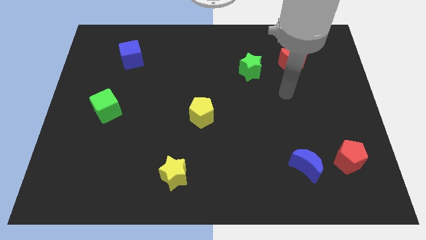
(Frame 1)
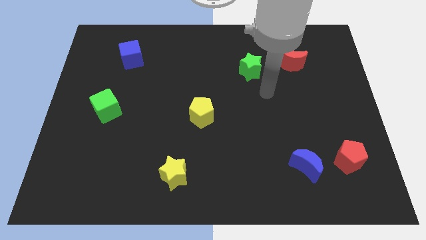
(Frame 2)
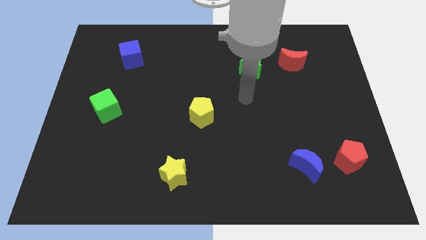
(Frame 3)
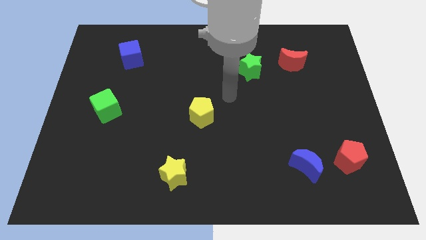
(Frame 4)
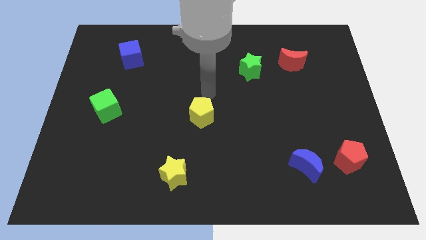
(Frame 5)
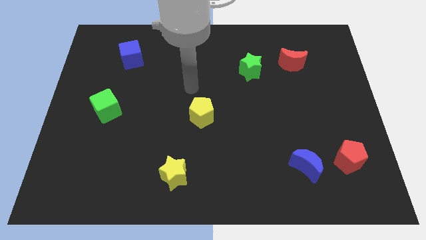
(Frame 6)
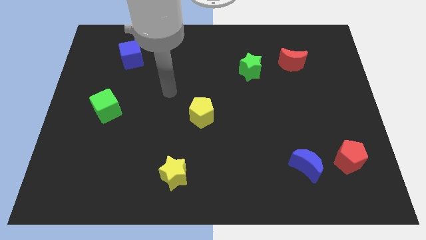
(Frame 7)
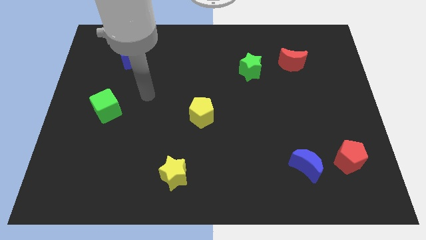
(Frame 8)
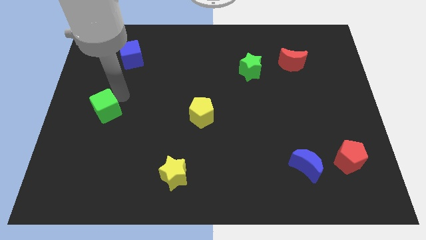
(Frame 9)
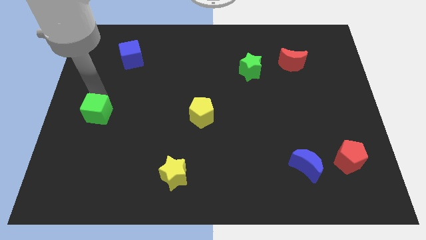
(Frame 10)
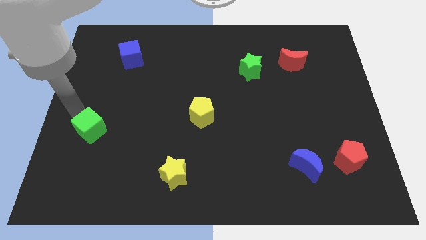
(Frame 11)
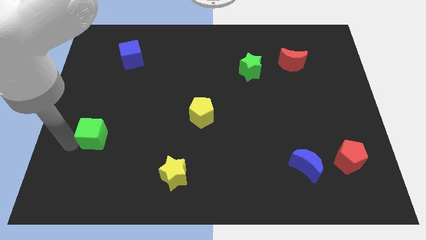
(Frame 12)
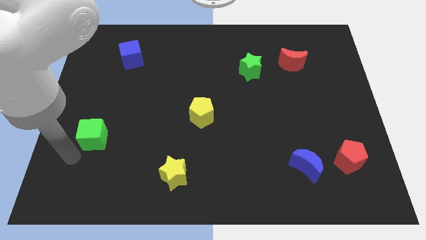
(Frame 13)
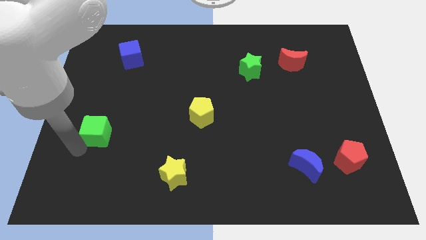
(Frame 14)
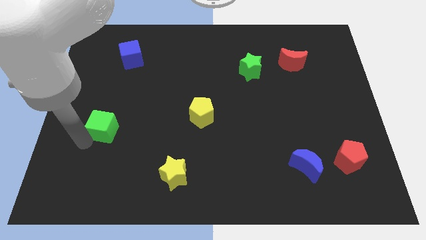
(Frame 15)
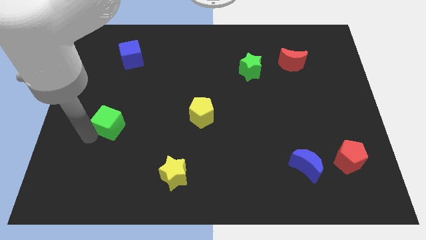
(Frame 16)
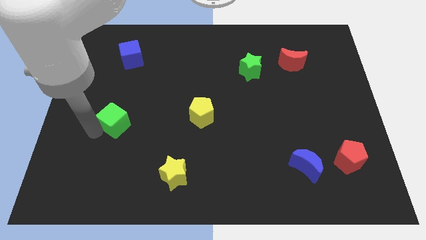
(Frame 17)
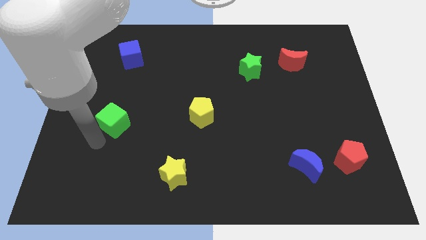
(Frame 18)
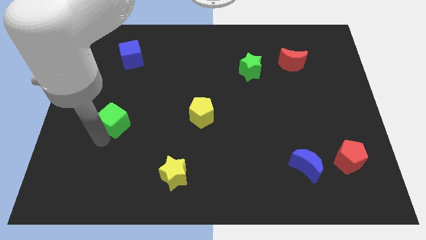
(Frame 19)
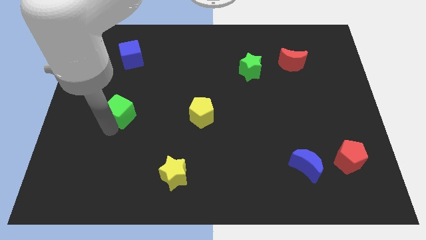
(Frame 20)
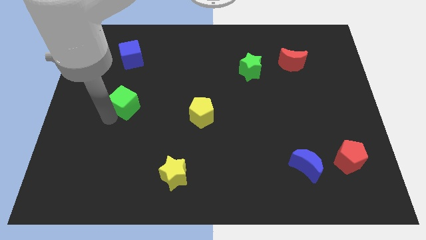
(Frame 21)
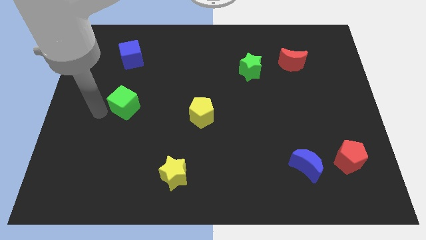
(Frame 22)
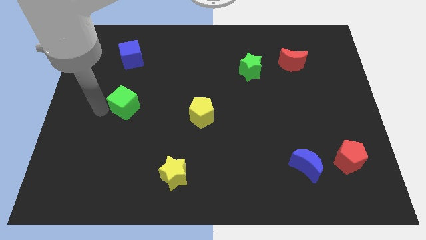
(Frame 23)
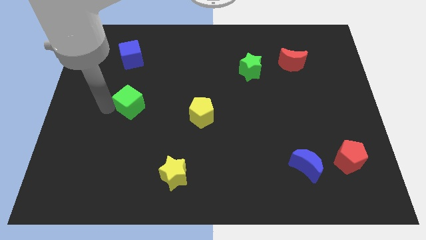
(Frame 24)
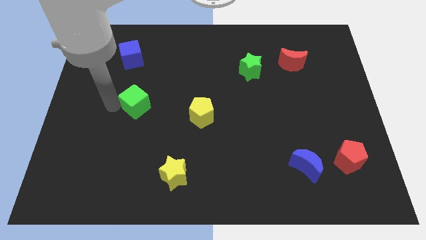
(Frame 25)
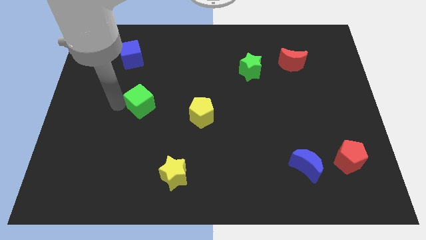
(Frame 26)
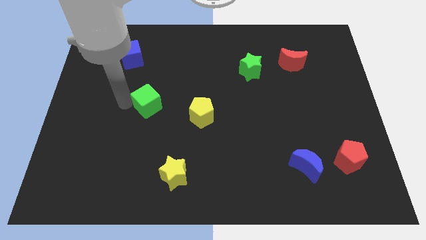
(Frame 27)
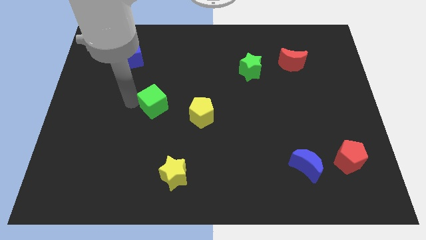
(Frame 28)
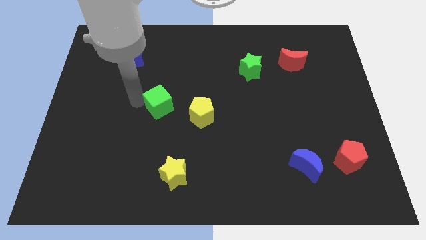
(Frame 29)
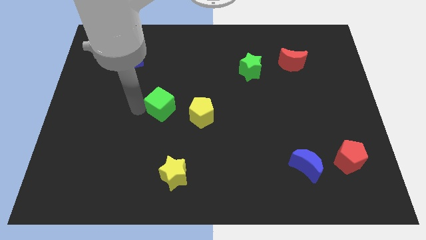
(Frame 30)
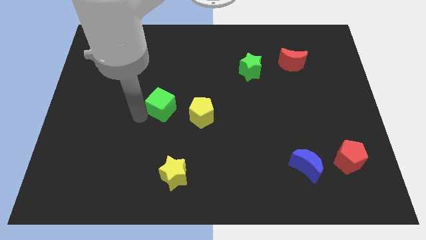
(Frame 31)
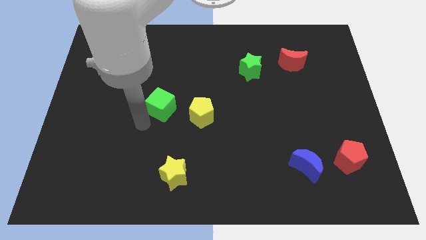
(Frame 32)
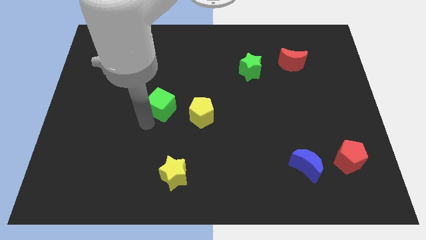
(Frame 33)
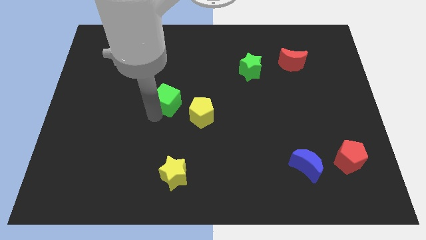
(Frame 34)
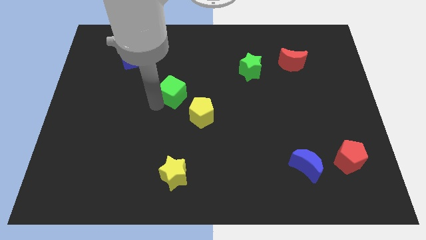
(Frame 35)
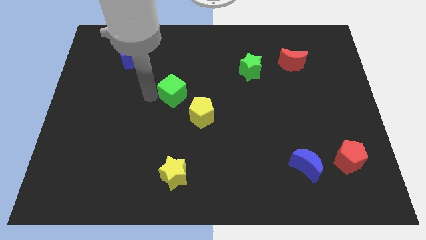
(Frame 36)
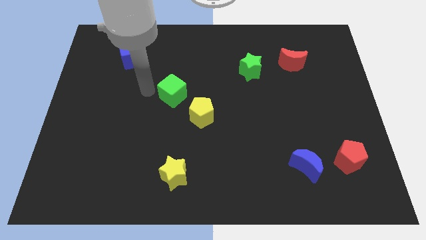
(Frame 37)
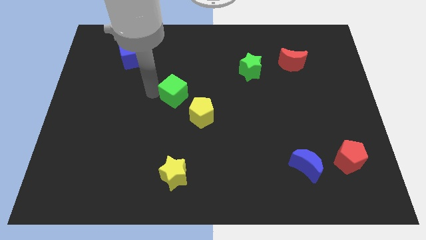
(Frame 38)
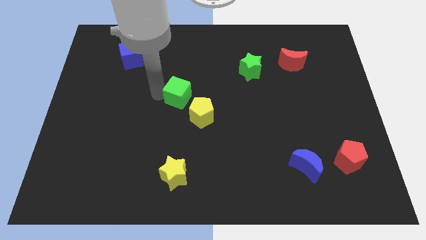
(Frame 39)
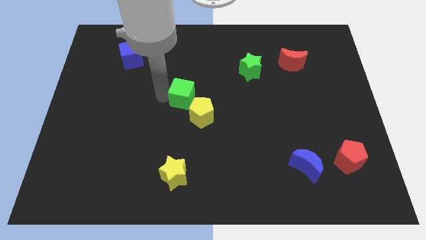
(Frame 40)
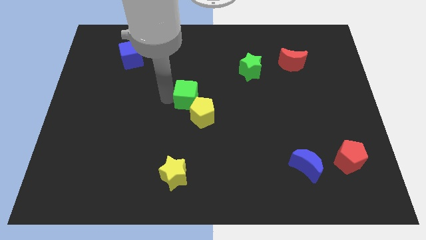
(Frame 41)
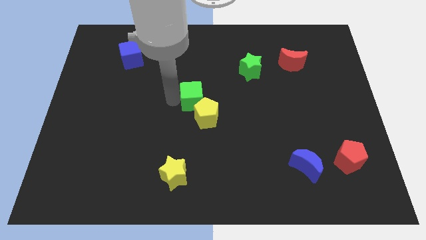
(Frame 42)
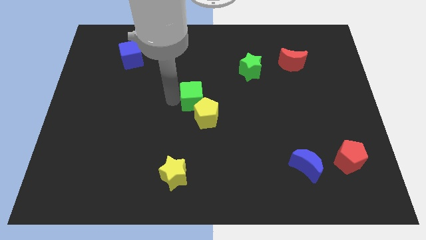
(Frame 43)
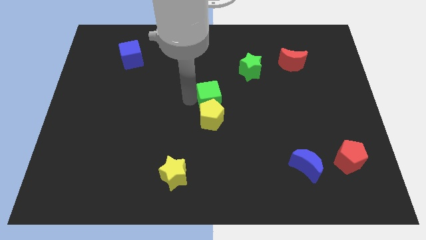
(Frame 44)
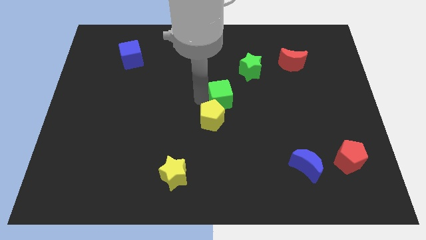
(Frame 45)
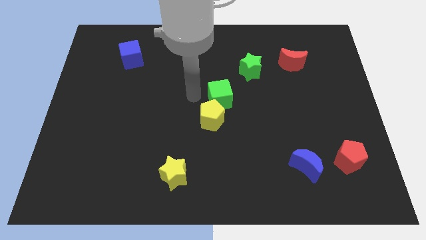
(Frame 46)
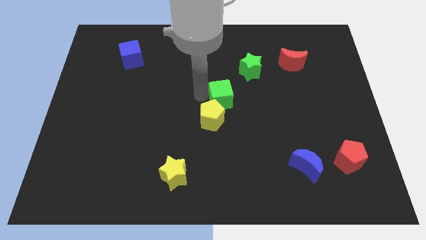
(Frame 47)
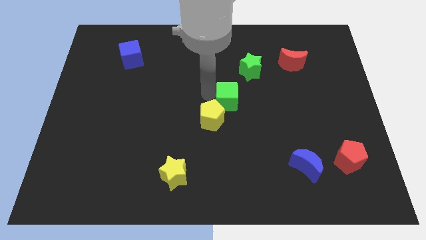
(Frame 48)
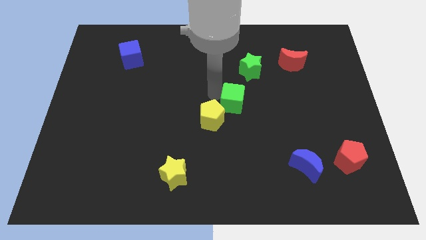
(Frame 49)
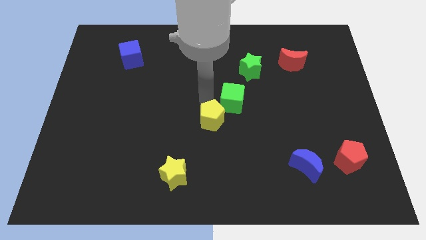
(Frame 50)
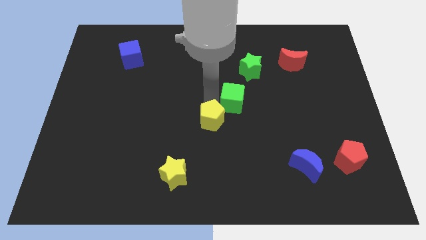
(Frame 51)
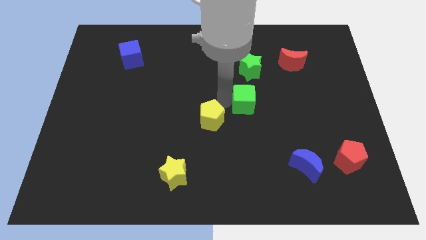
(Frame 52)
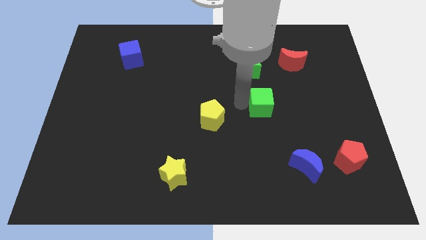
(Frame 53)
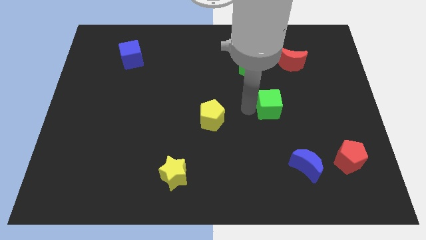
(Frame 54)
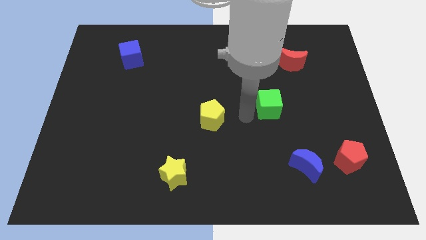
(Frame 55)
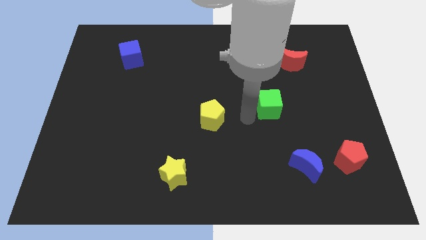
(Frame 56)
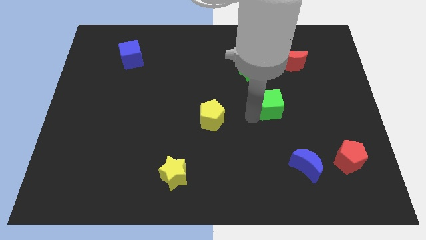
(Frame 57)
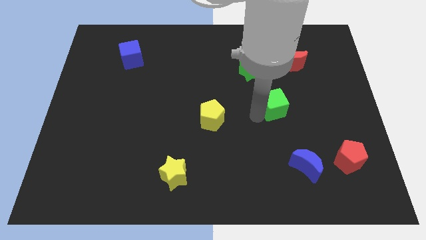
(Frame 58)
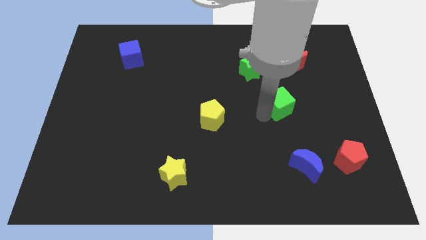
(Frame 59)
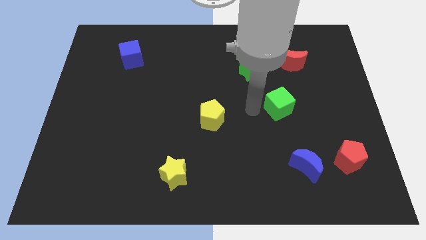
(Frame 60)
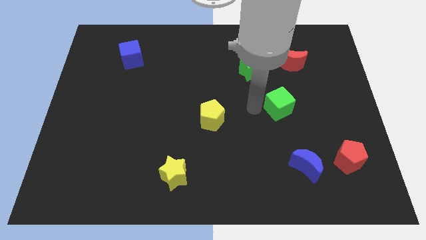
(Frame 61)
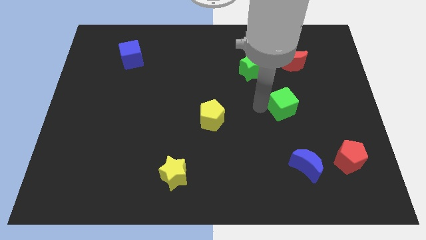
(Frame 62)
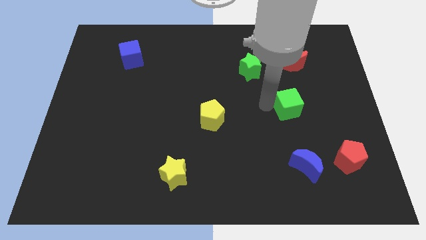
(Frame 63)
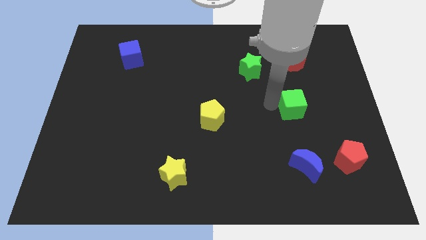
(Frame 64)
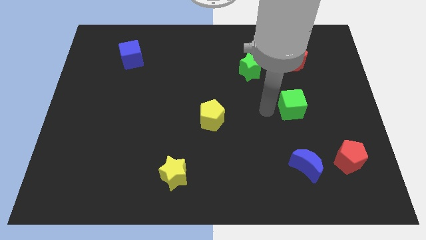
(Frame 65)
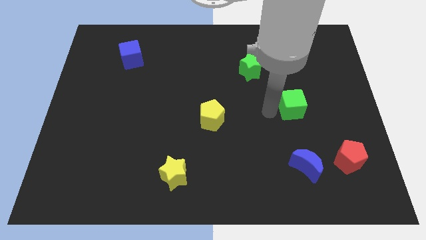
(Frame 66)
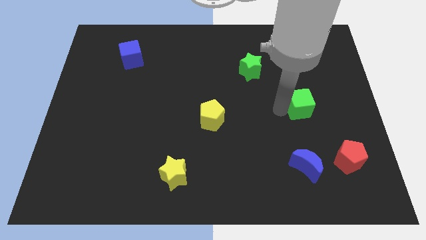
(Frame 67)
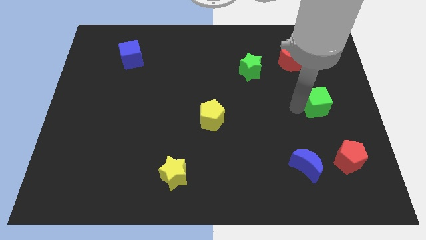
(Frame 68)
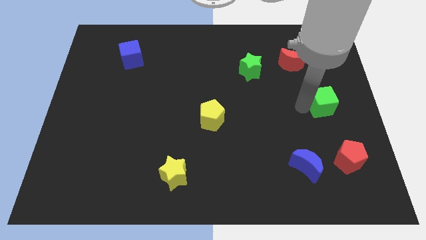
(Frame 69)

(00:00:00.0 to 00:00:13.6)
put the green cube to the center right
